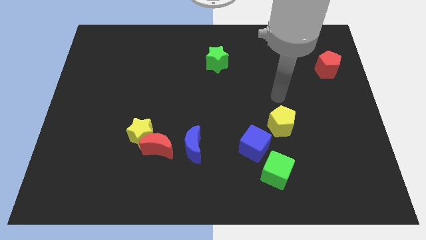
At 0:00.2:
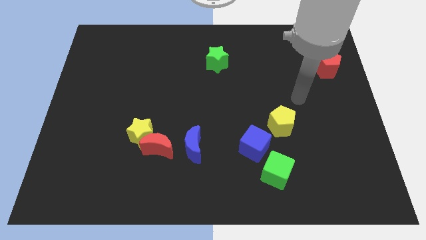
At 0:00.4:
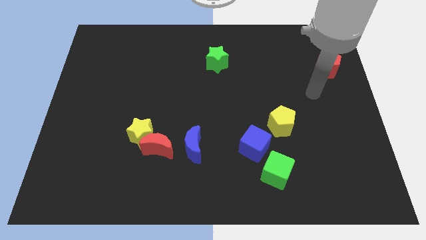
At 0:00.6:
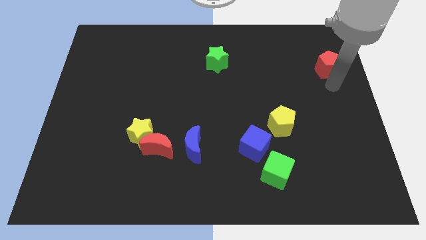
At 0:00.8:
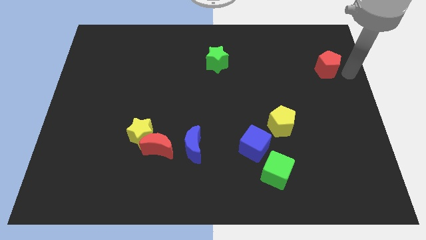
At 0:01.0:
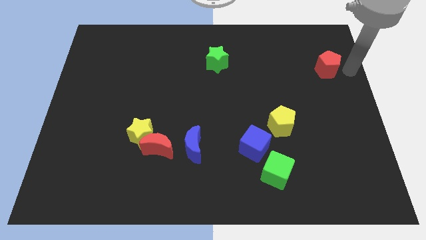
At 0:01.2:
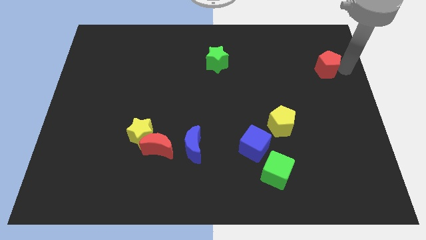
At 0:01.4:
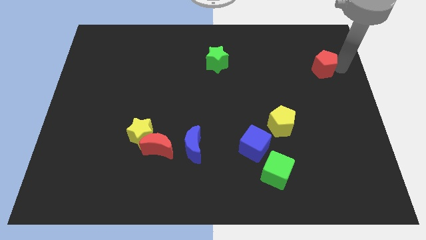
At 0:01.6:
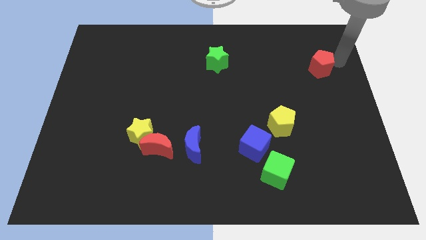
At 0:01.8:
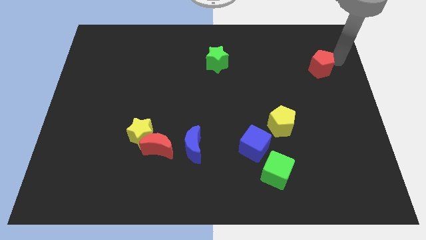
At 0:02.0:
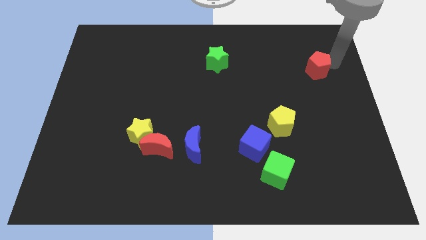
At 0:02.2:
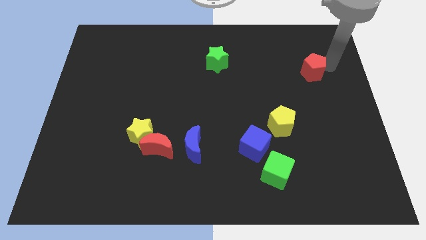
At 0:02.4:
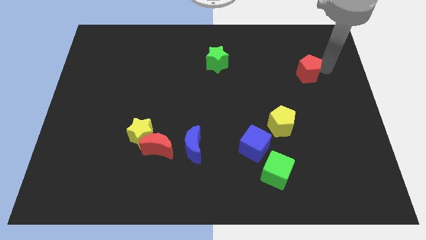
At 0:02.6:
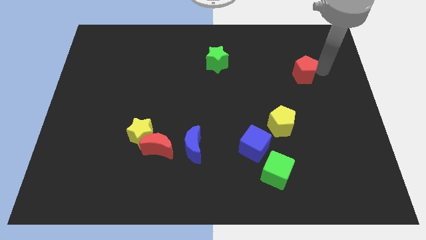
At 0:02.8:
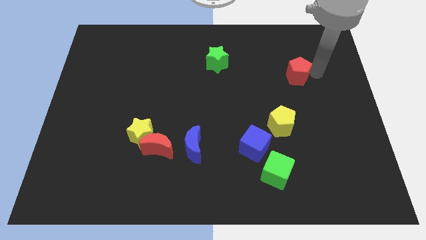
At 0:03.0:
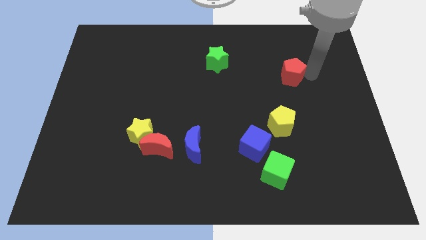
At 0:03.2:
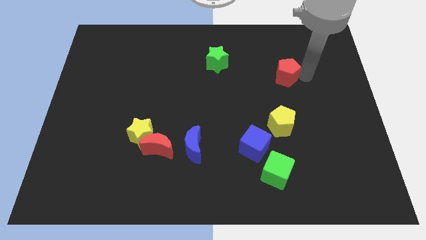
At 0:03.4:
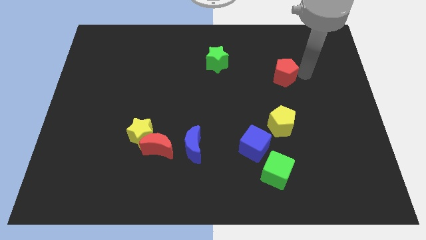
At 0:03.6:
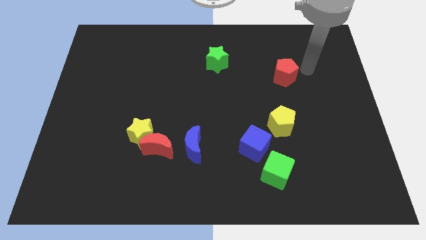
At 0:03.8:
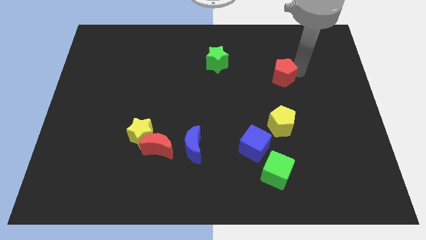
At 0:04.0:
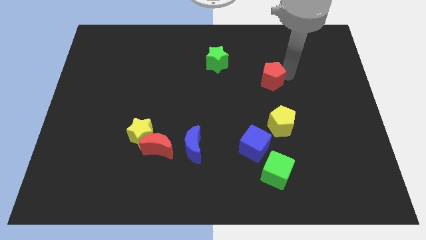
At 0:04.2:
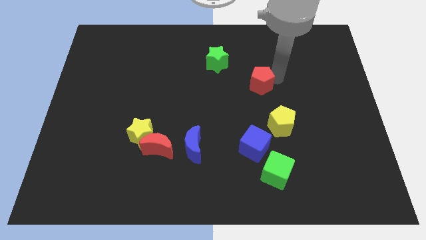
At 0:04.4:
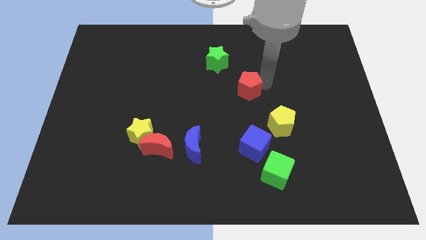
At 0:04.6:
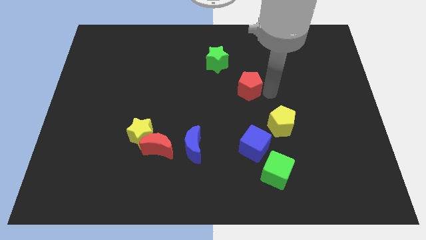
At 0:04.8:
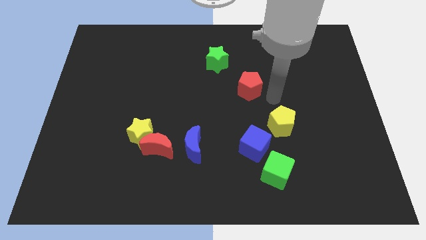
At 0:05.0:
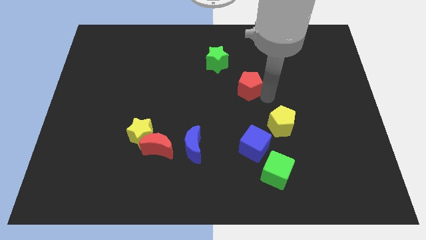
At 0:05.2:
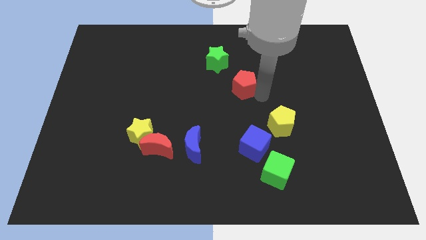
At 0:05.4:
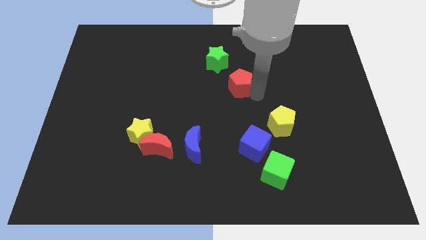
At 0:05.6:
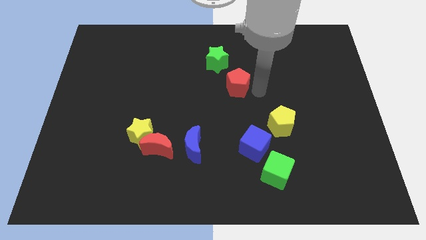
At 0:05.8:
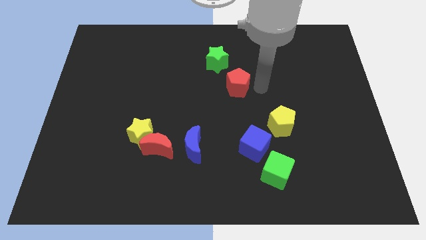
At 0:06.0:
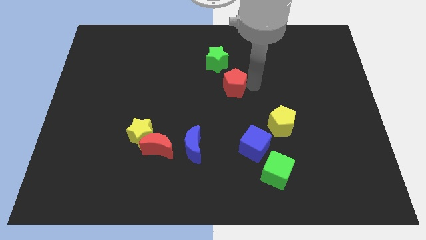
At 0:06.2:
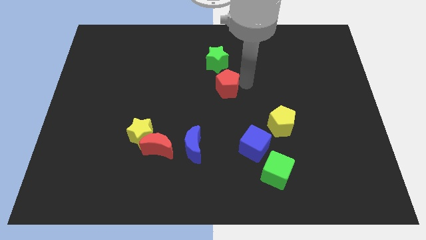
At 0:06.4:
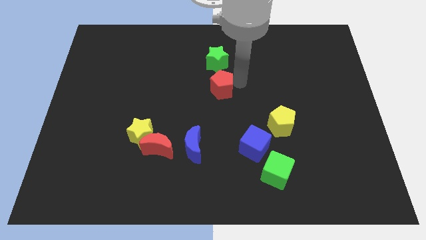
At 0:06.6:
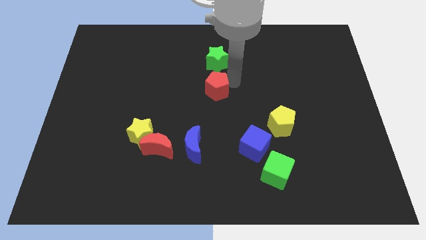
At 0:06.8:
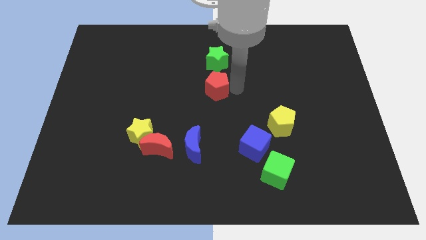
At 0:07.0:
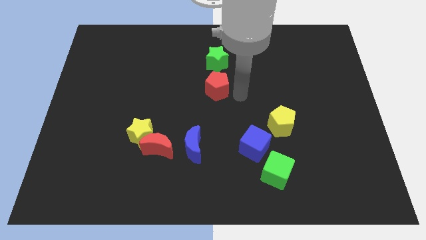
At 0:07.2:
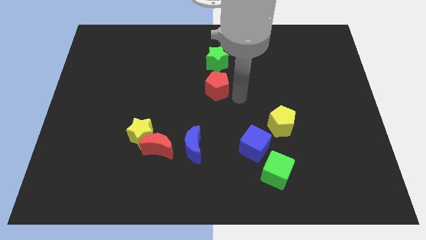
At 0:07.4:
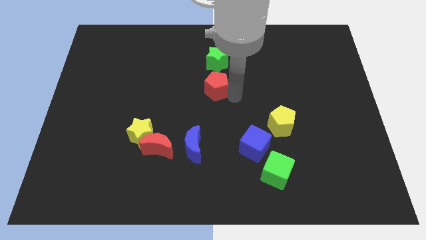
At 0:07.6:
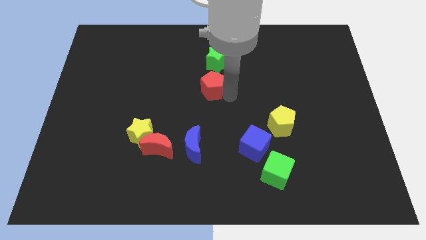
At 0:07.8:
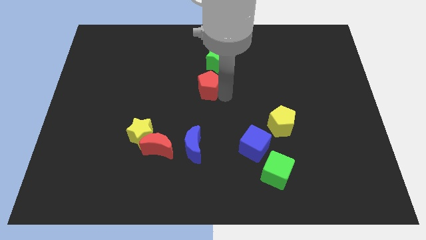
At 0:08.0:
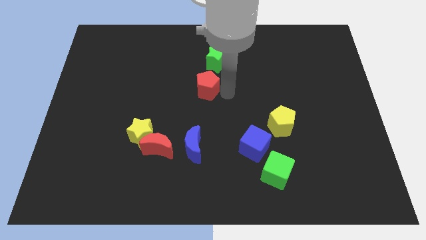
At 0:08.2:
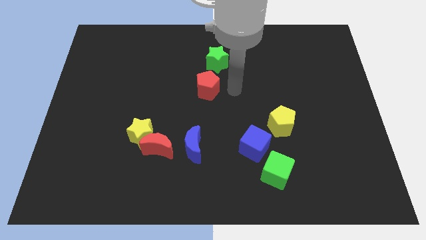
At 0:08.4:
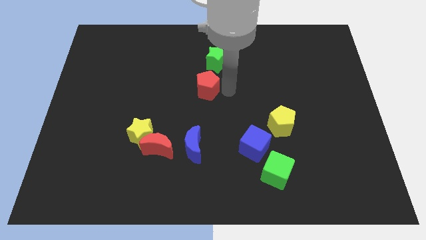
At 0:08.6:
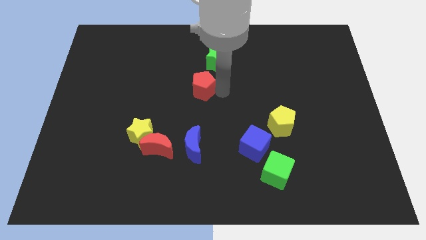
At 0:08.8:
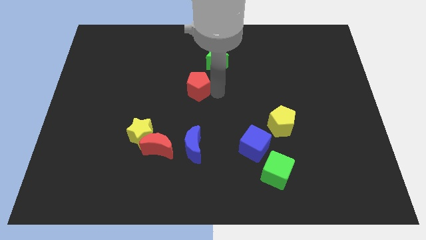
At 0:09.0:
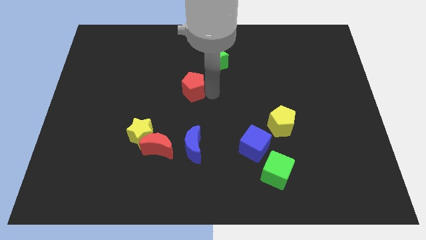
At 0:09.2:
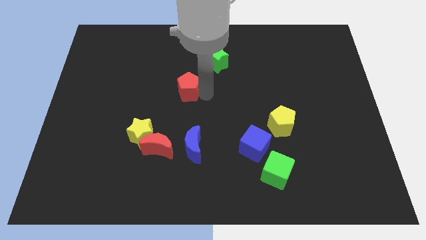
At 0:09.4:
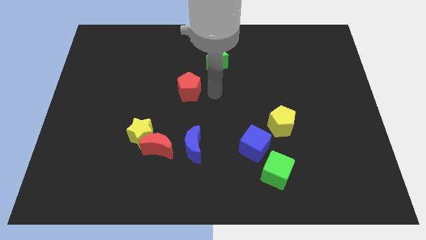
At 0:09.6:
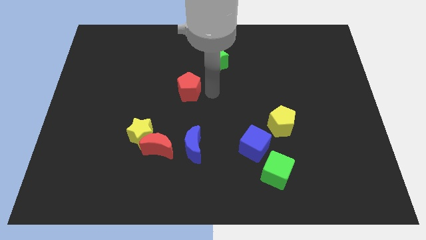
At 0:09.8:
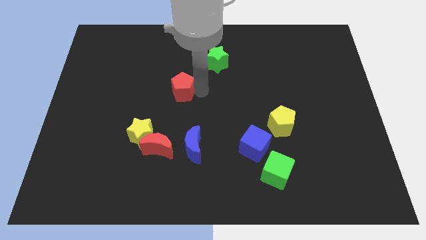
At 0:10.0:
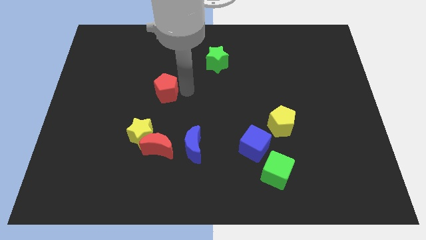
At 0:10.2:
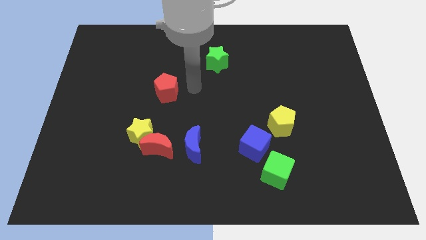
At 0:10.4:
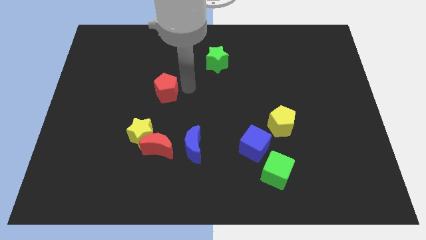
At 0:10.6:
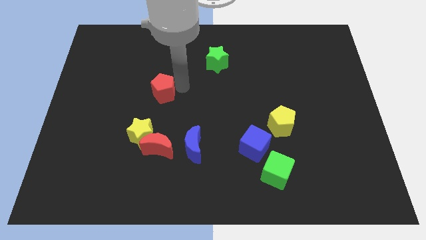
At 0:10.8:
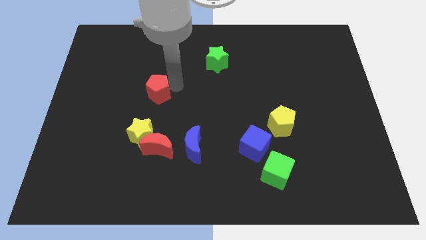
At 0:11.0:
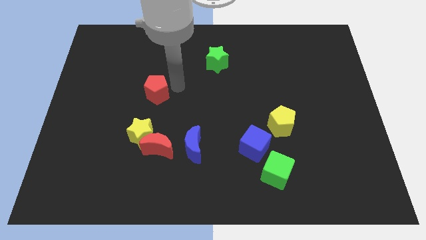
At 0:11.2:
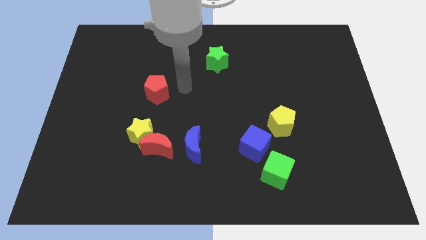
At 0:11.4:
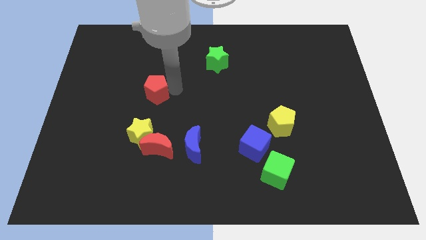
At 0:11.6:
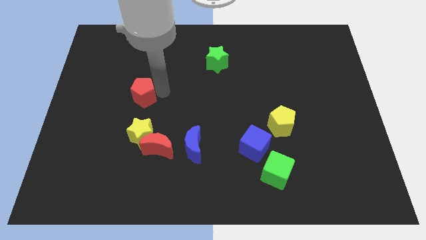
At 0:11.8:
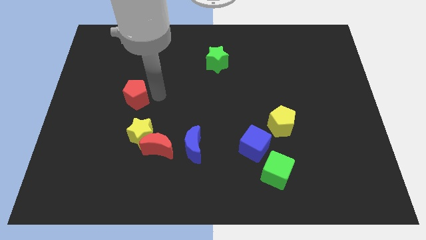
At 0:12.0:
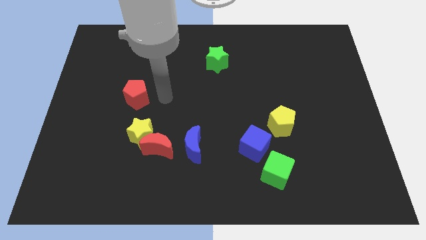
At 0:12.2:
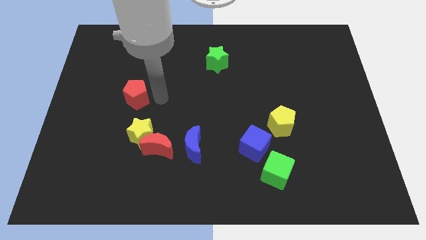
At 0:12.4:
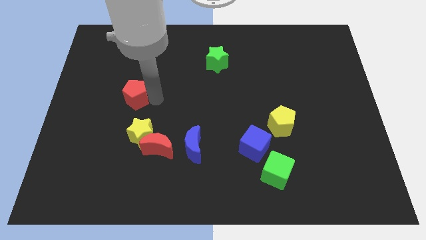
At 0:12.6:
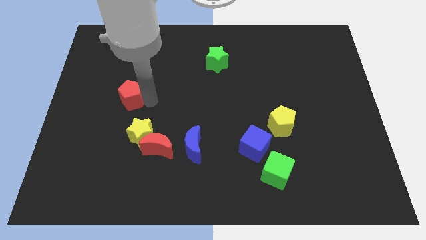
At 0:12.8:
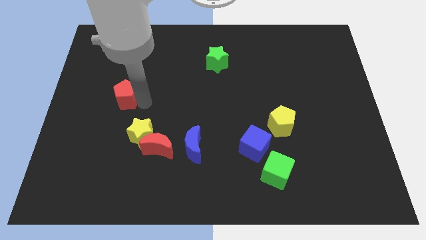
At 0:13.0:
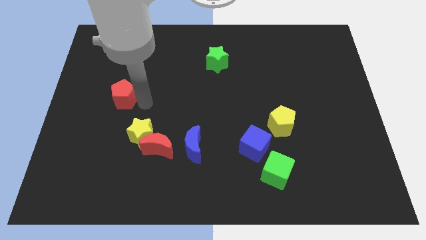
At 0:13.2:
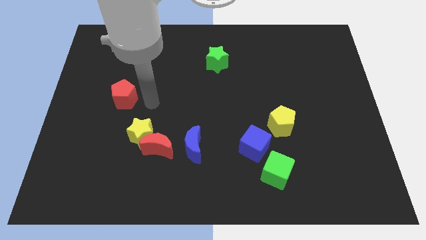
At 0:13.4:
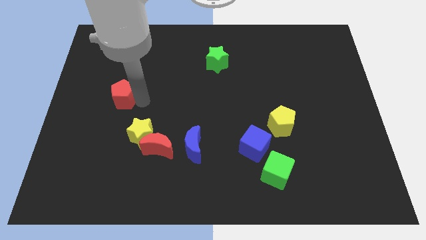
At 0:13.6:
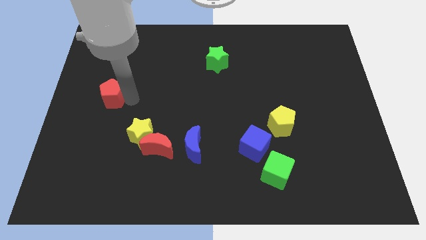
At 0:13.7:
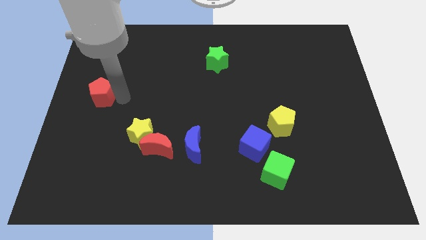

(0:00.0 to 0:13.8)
push the red pentagon to the left side
